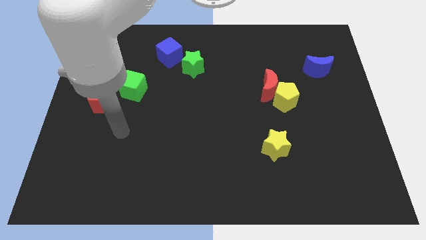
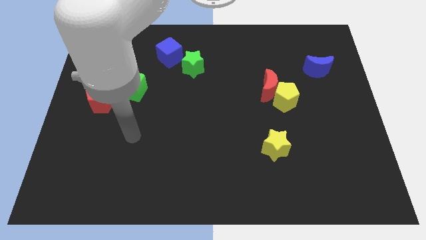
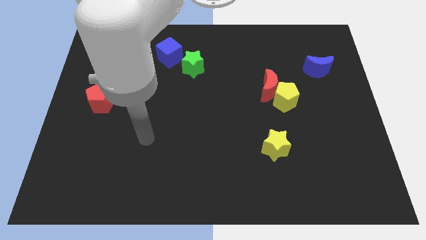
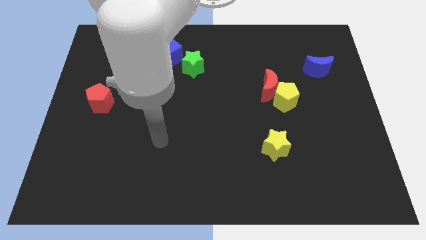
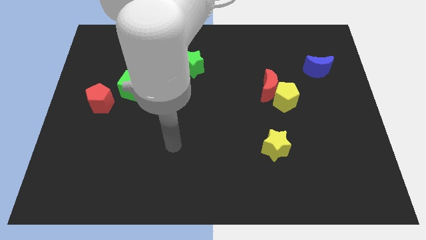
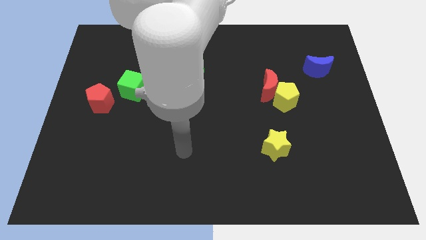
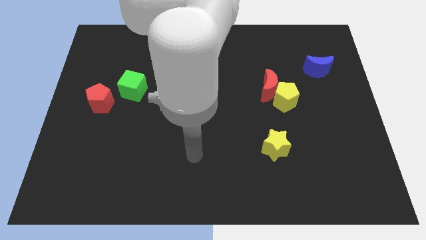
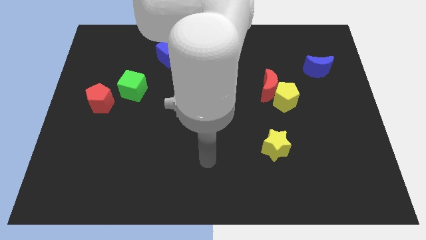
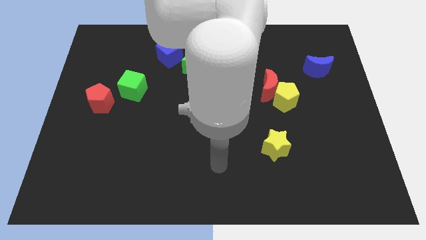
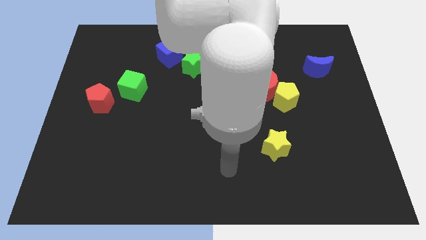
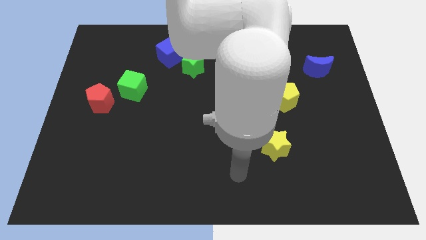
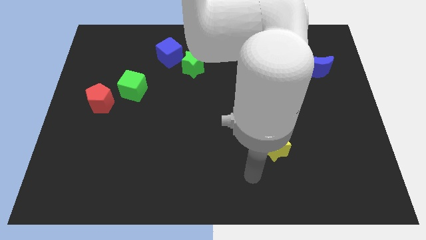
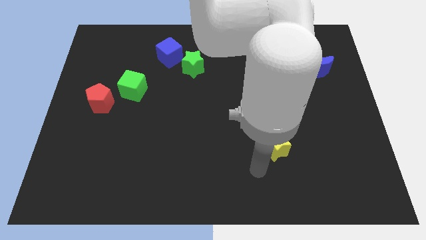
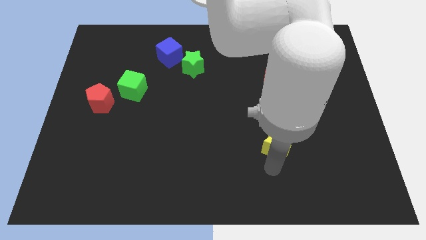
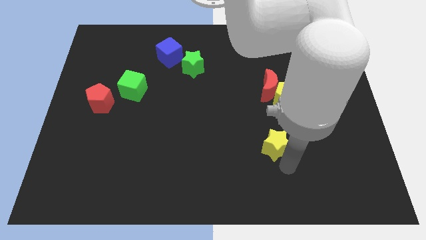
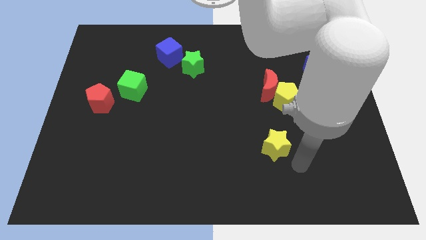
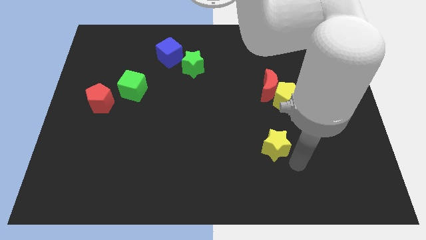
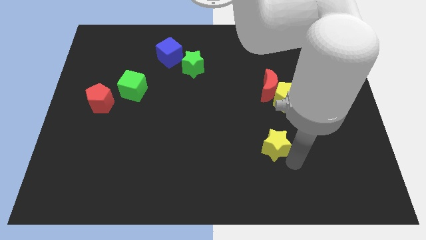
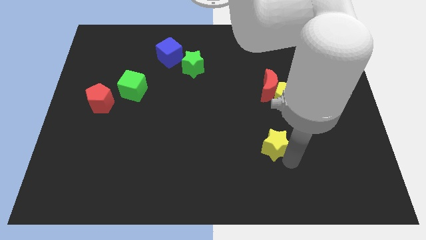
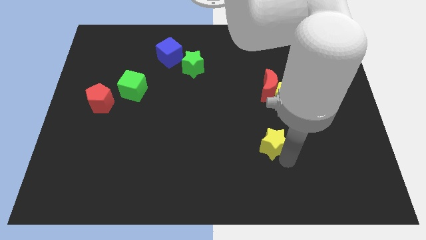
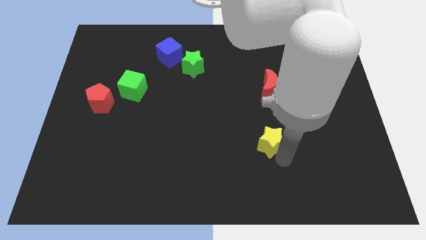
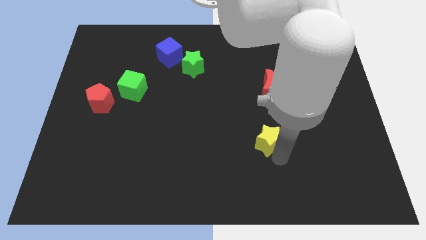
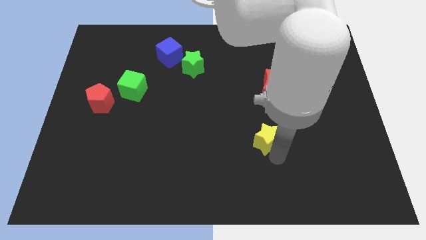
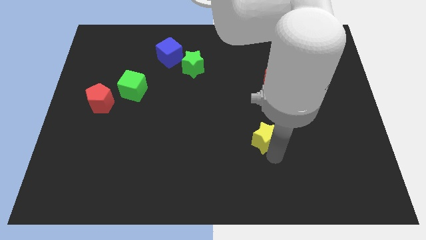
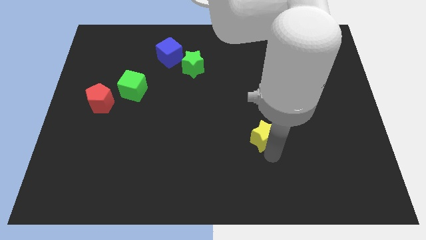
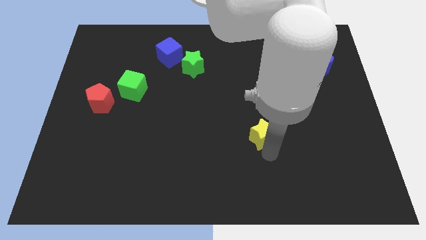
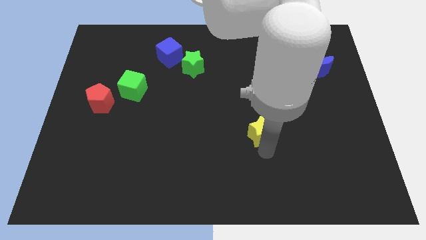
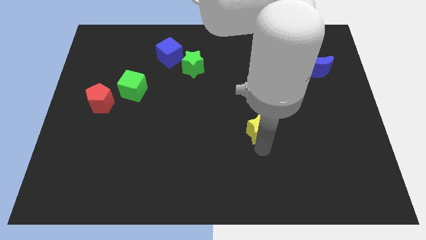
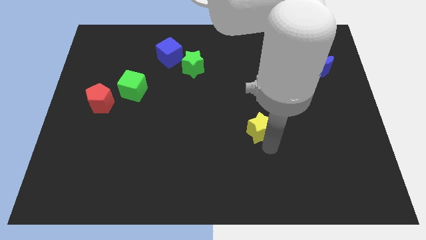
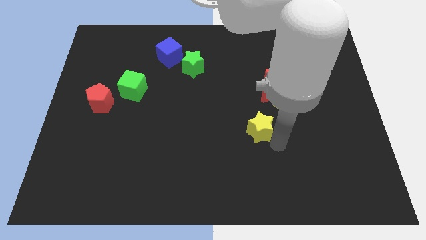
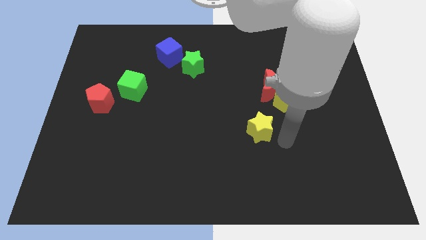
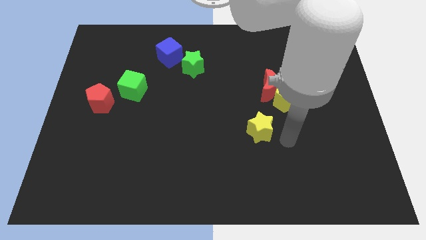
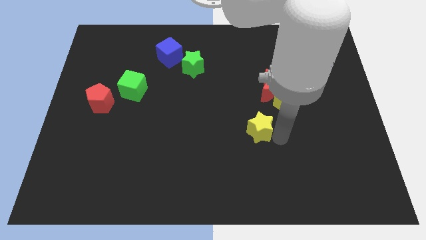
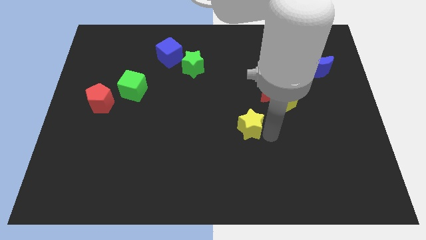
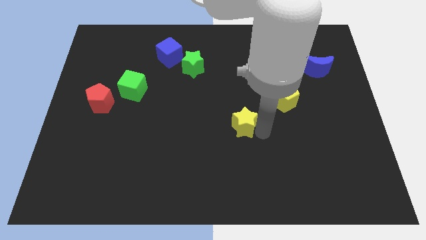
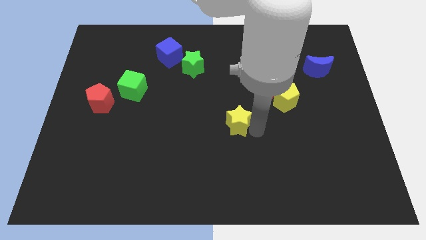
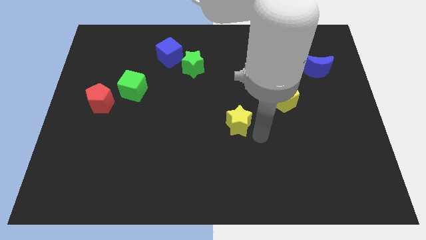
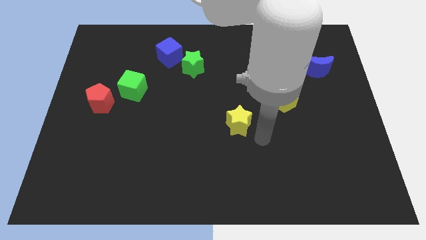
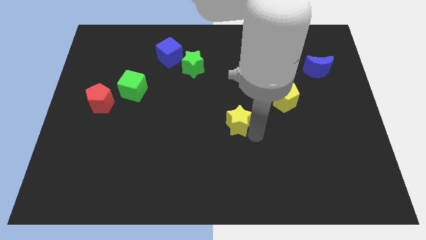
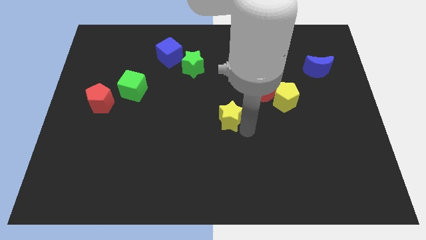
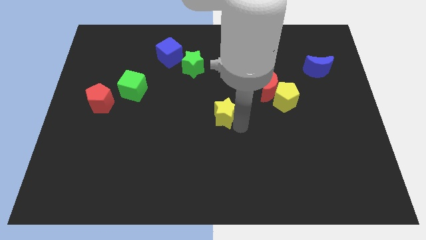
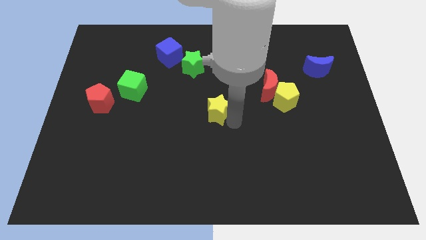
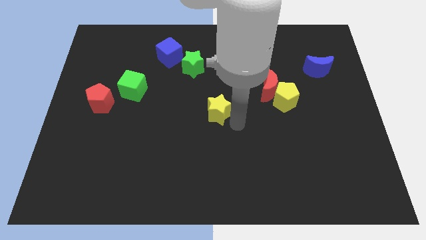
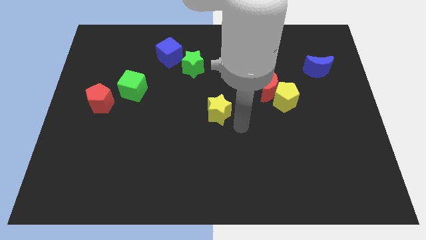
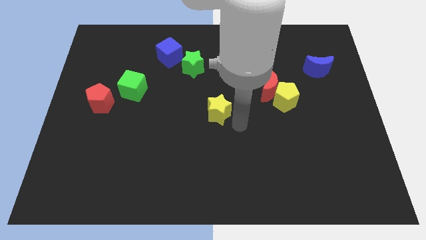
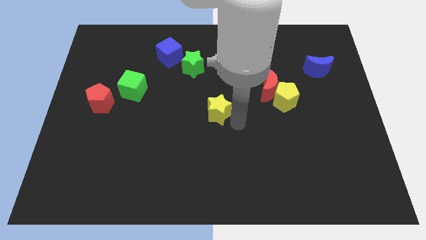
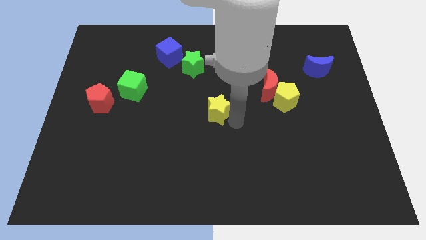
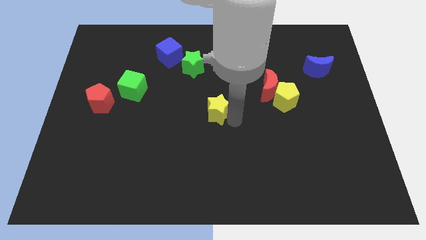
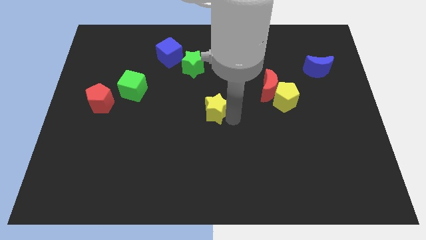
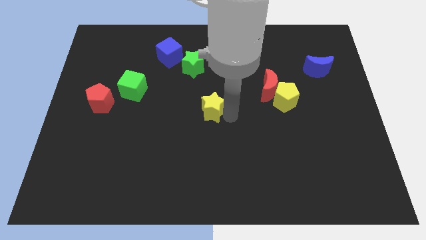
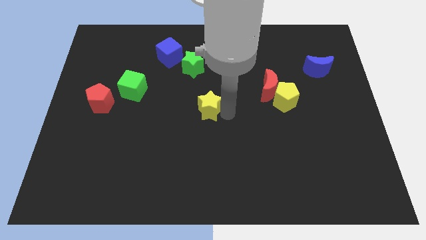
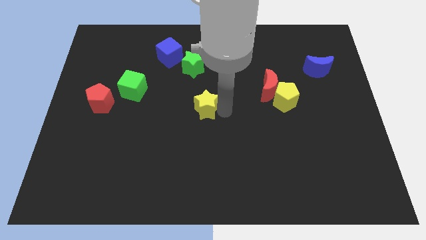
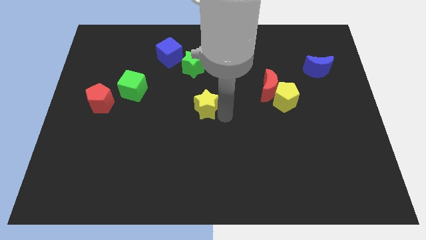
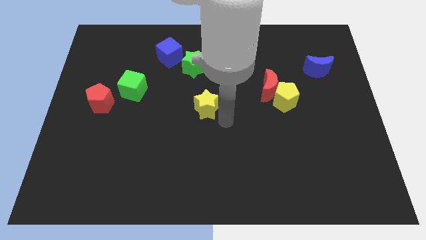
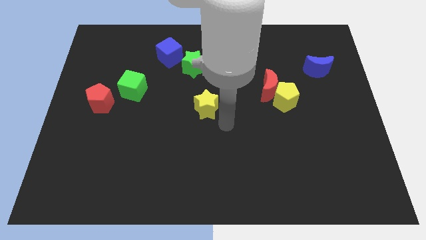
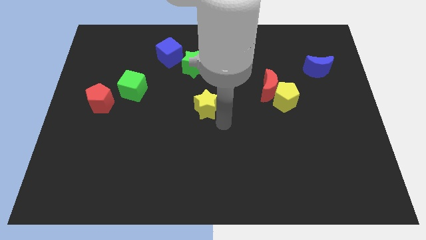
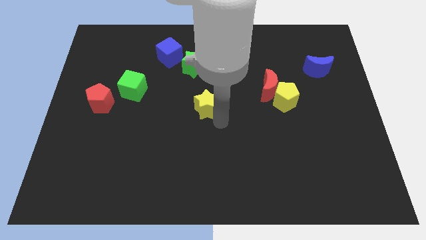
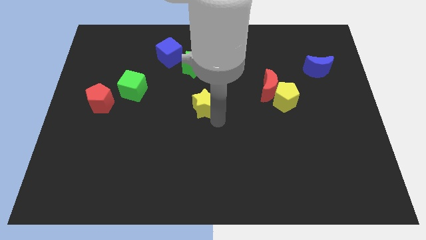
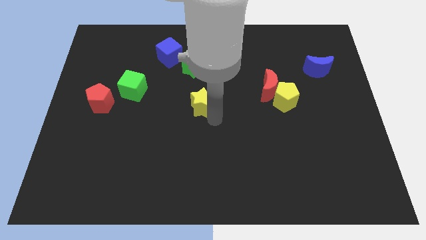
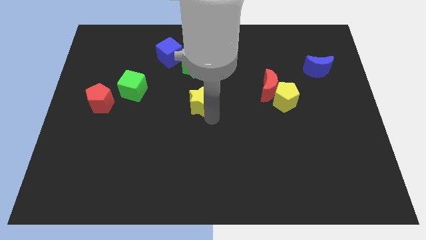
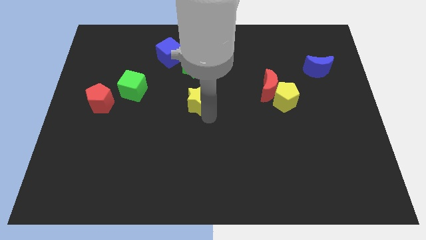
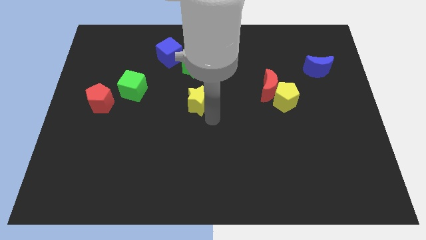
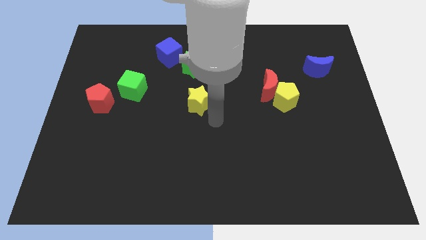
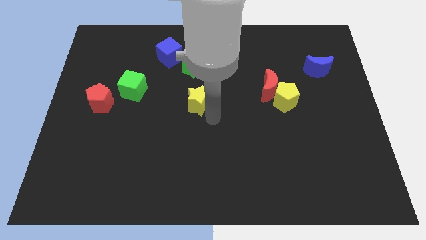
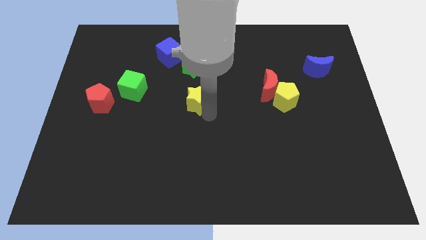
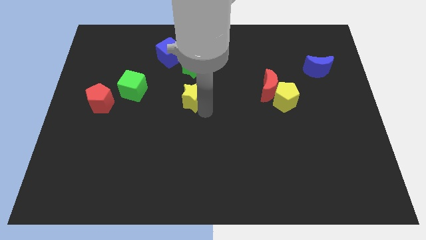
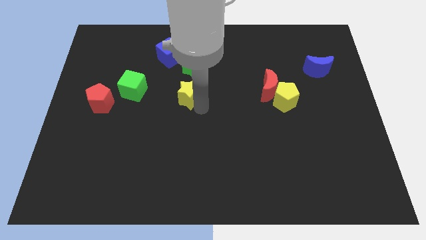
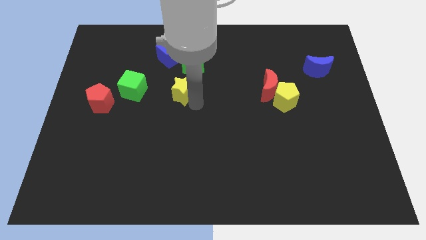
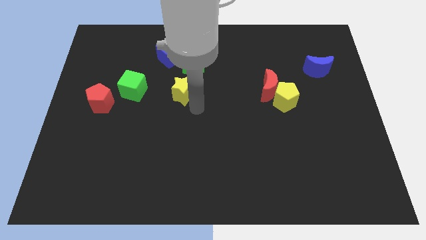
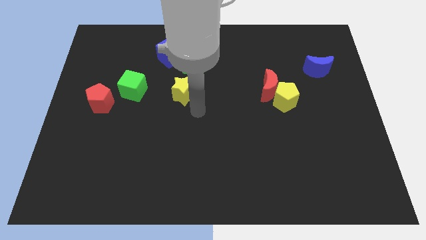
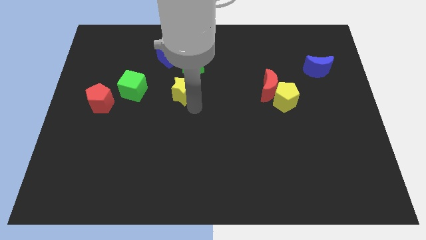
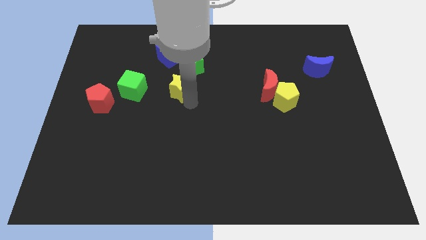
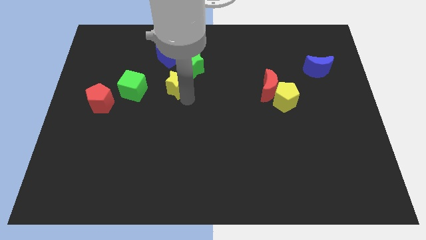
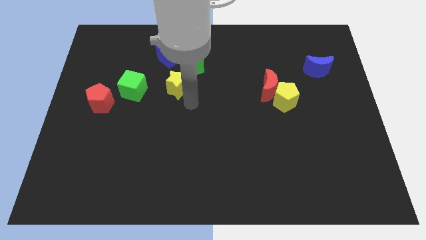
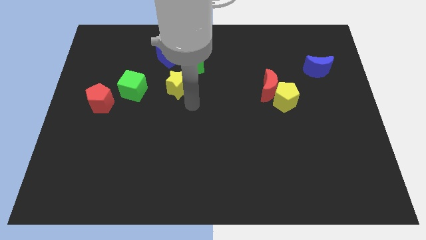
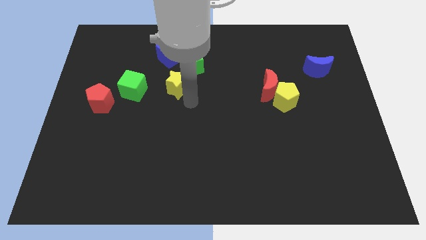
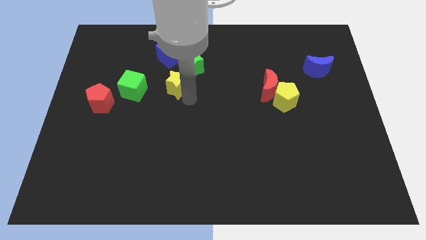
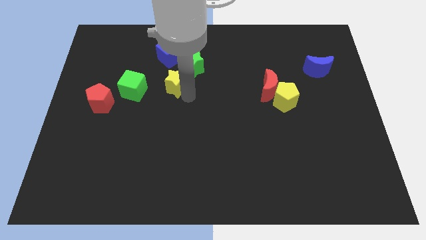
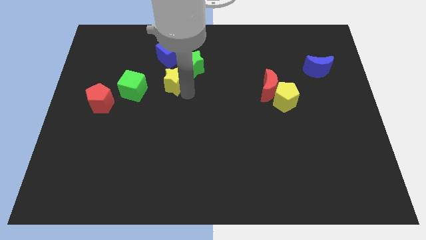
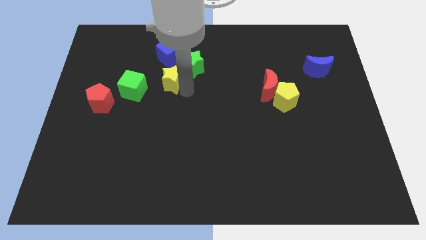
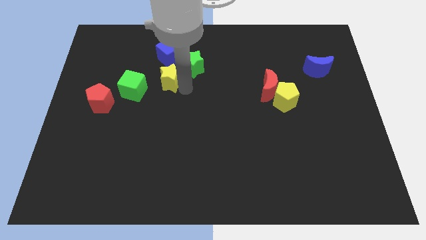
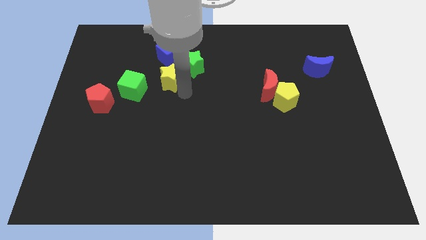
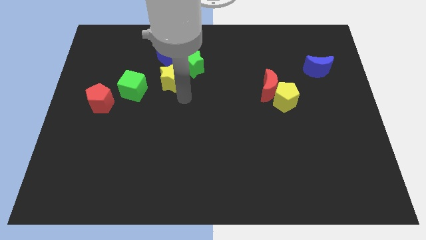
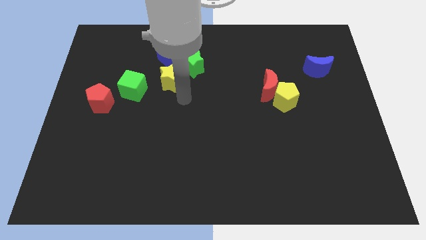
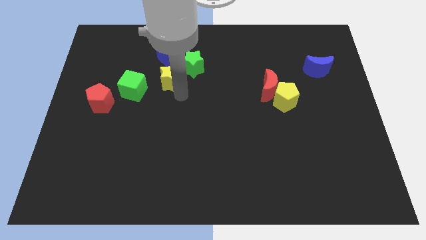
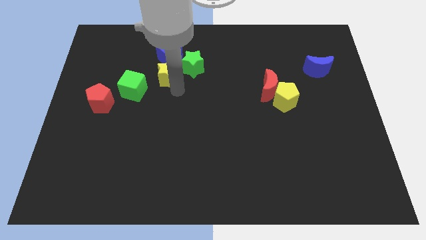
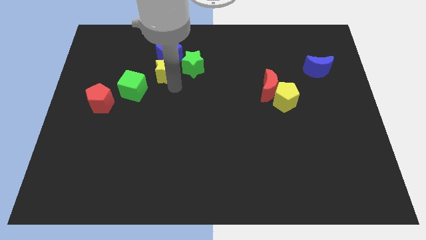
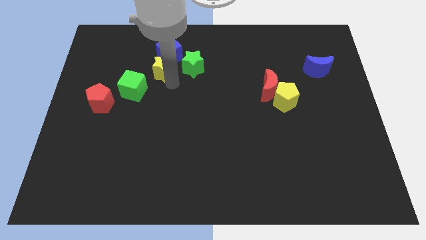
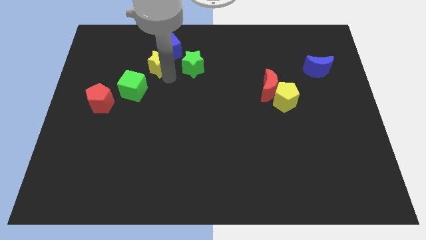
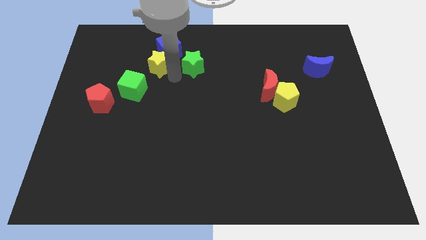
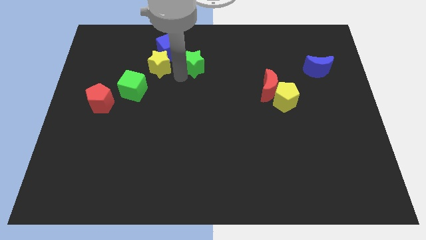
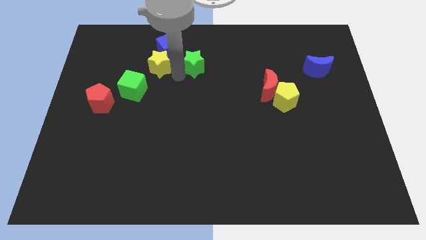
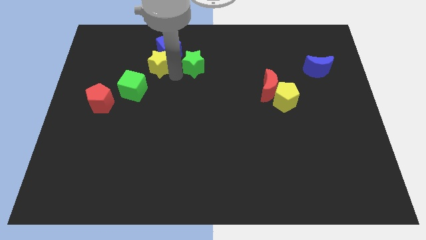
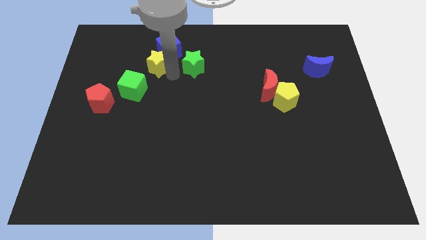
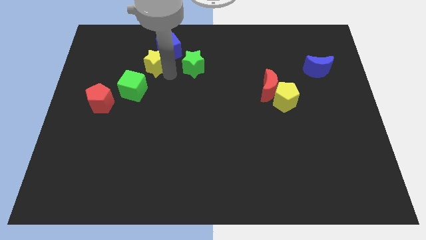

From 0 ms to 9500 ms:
slide the yellow star to the top side of the green cube
